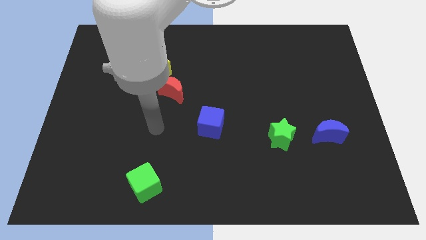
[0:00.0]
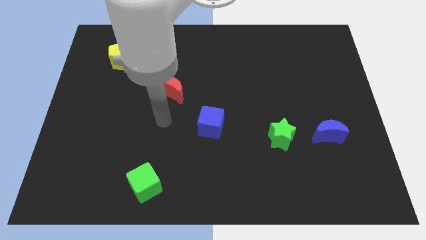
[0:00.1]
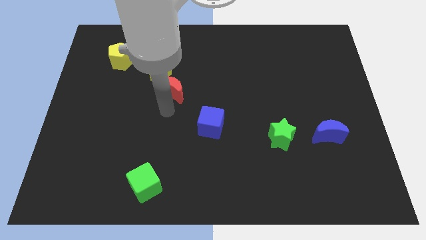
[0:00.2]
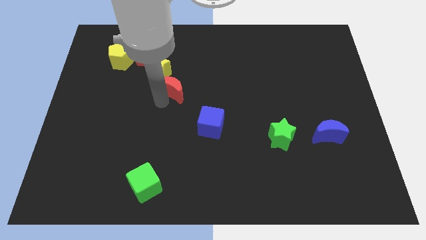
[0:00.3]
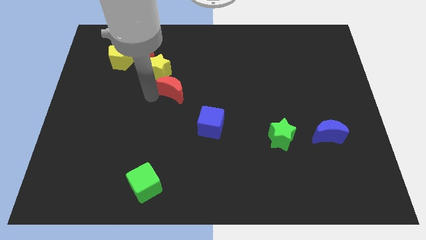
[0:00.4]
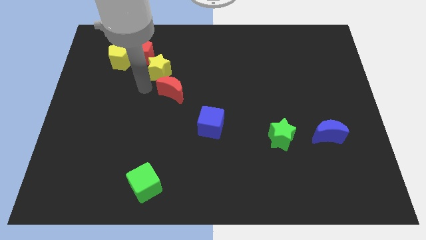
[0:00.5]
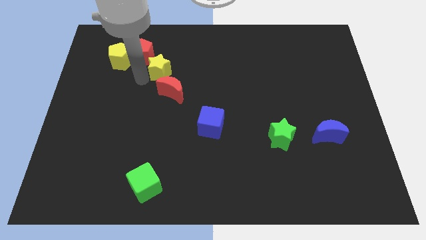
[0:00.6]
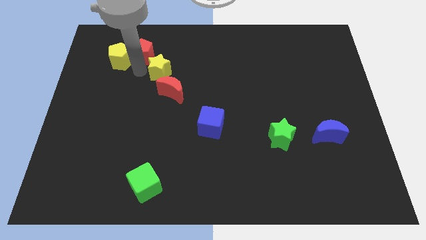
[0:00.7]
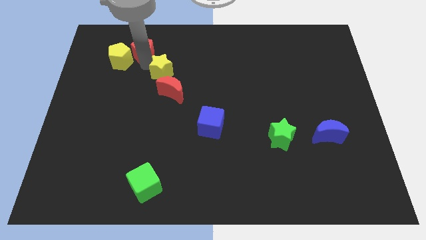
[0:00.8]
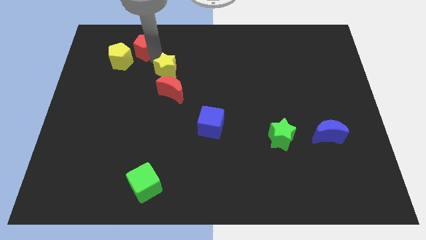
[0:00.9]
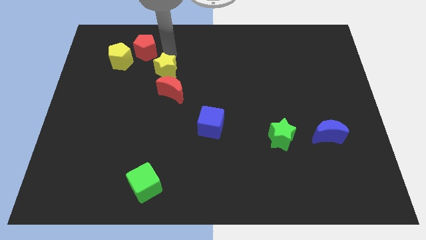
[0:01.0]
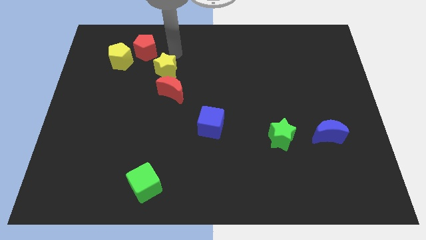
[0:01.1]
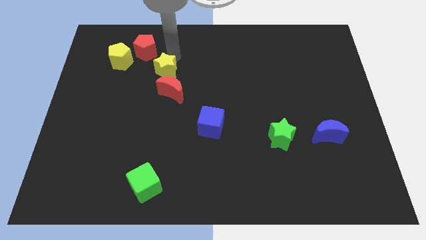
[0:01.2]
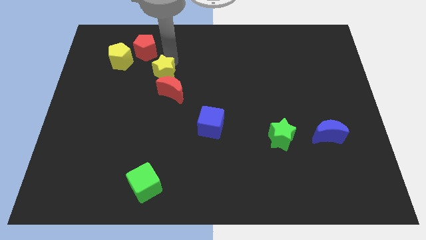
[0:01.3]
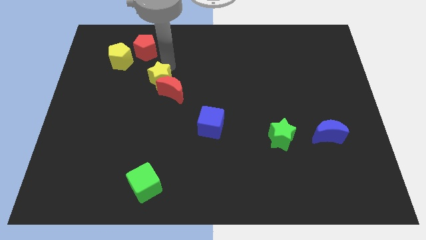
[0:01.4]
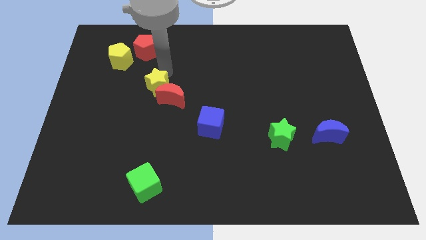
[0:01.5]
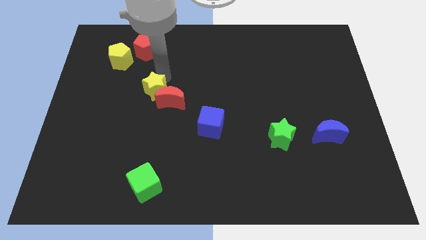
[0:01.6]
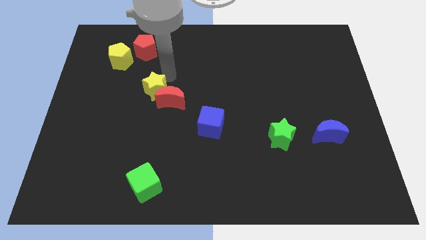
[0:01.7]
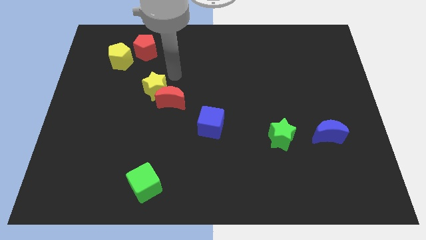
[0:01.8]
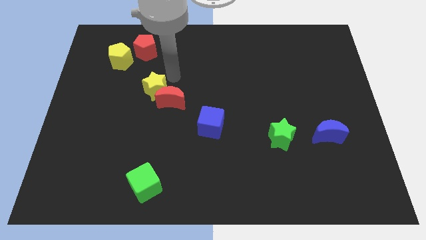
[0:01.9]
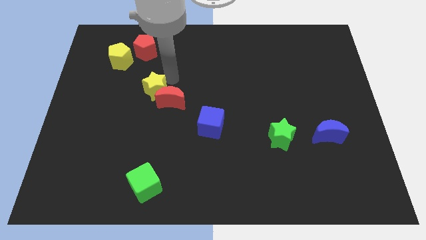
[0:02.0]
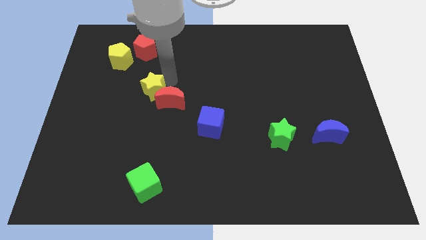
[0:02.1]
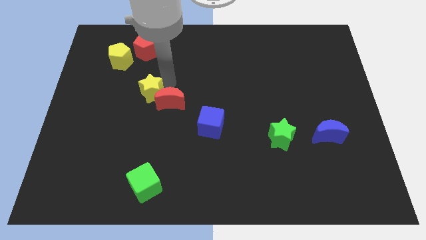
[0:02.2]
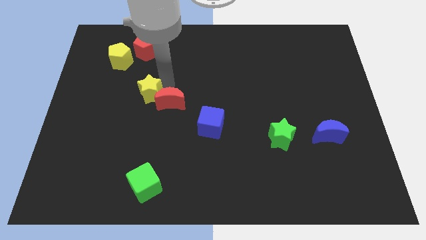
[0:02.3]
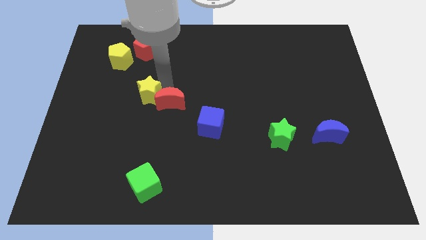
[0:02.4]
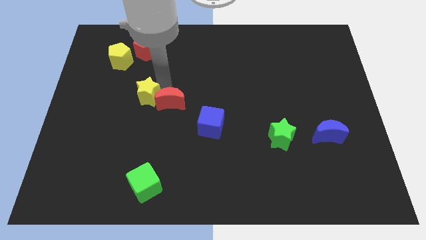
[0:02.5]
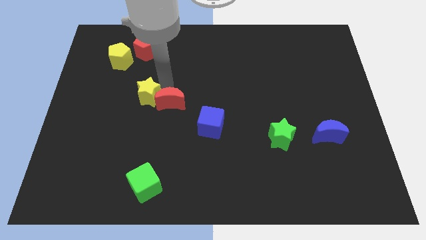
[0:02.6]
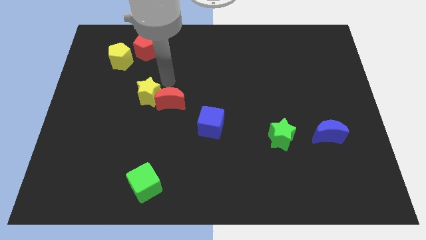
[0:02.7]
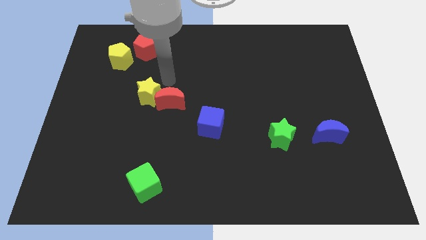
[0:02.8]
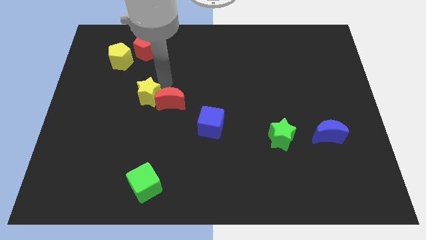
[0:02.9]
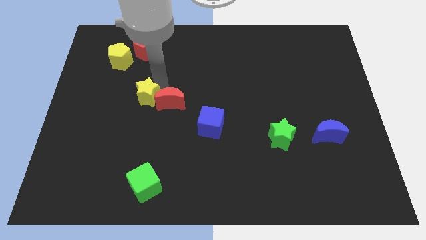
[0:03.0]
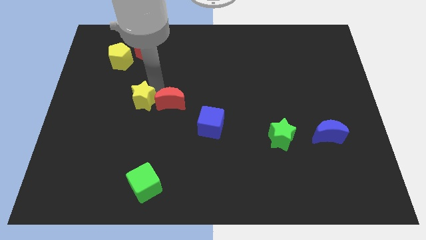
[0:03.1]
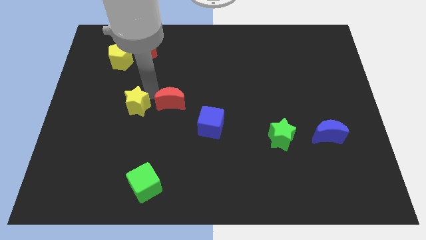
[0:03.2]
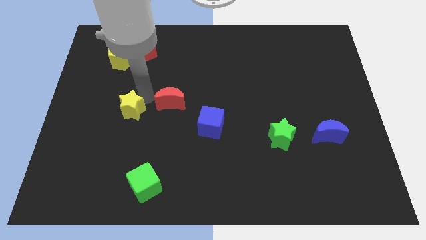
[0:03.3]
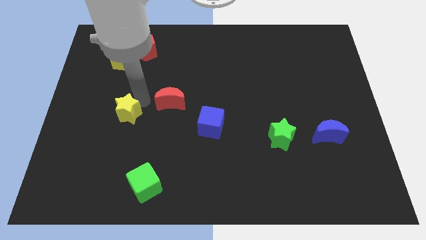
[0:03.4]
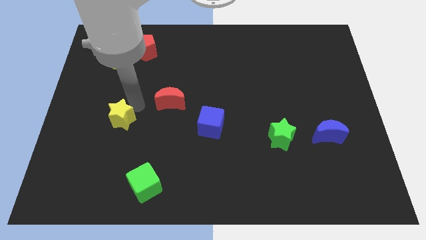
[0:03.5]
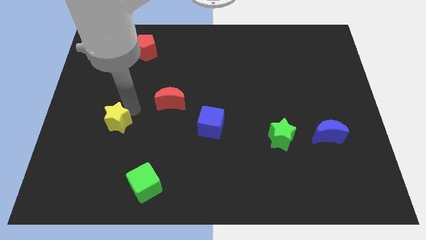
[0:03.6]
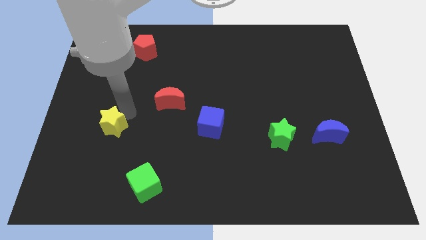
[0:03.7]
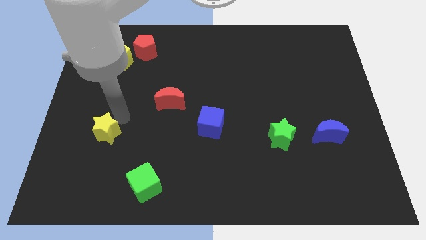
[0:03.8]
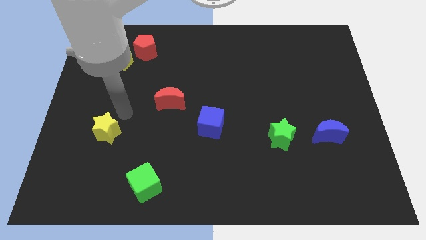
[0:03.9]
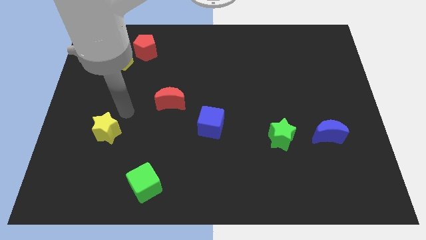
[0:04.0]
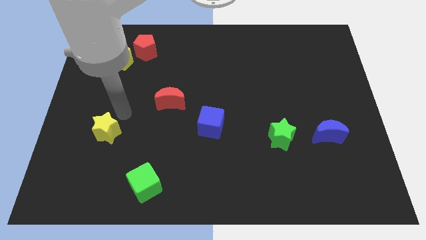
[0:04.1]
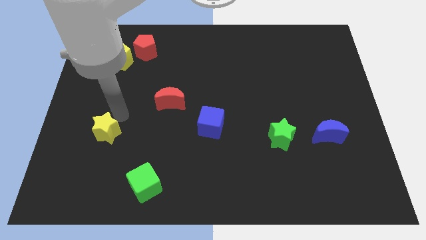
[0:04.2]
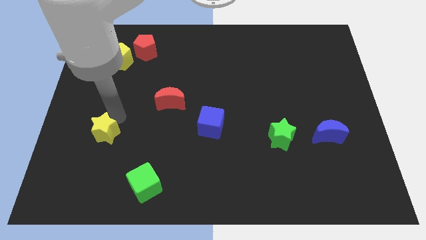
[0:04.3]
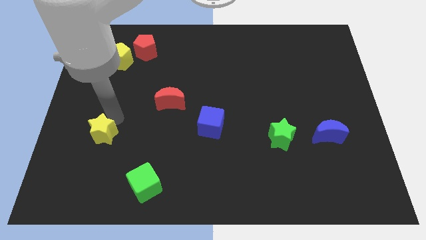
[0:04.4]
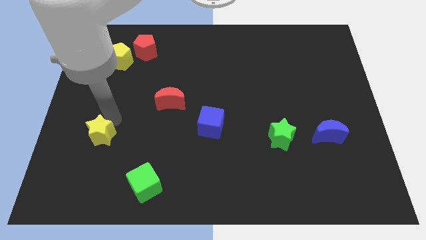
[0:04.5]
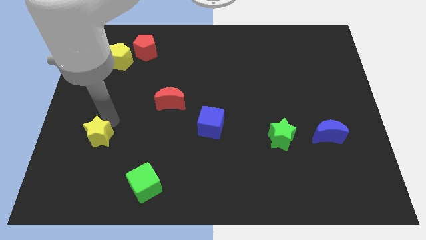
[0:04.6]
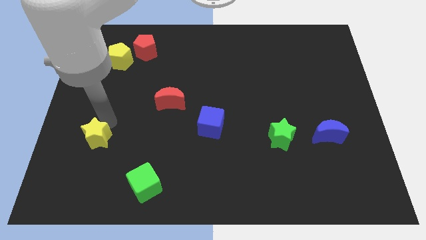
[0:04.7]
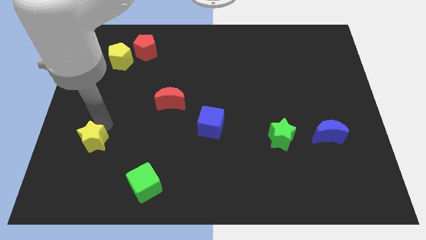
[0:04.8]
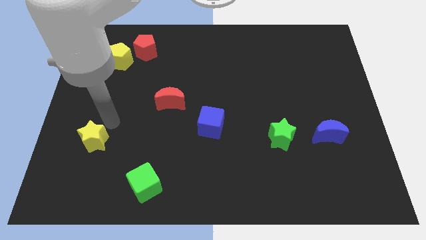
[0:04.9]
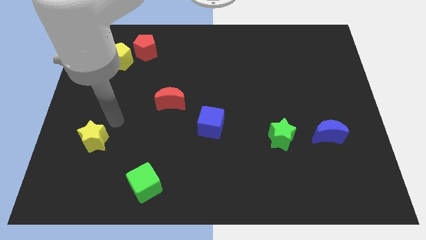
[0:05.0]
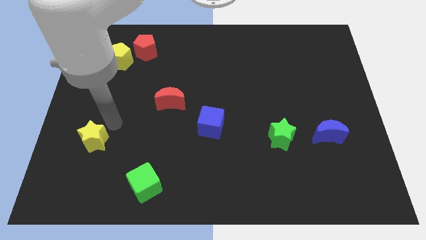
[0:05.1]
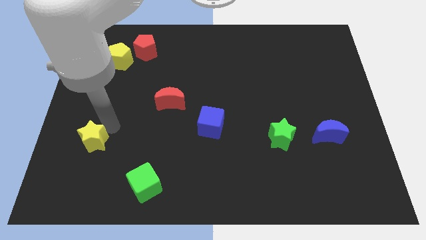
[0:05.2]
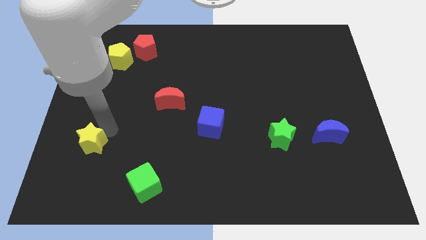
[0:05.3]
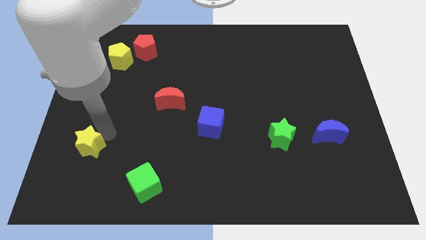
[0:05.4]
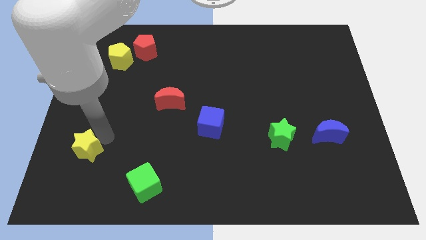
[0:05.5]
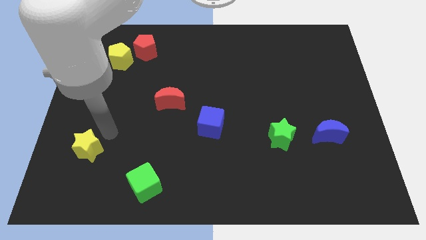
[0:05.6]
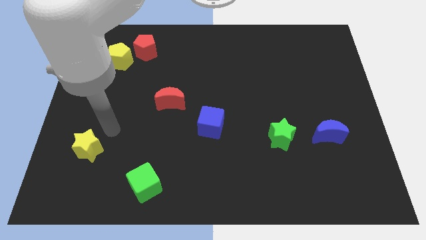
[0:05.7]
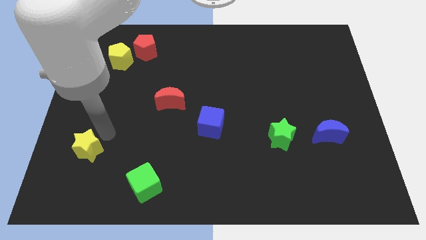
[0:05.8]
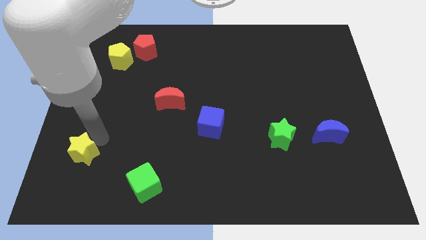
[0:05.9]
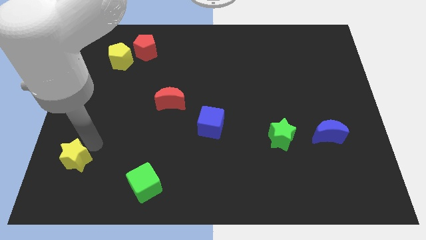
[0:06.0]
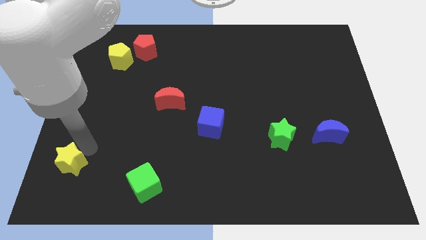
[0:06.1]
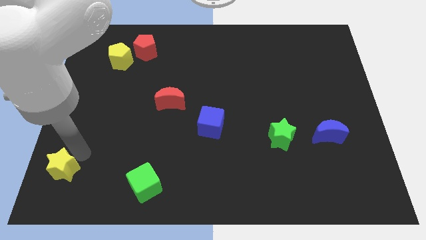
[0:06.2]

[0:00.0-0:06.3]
slide the yellow star to the bottom left of the board

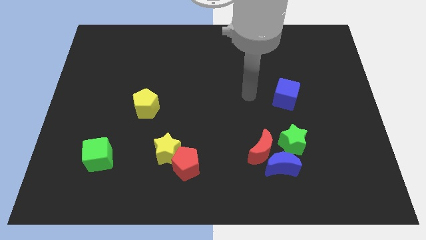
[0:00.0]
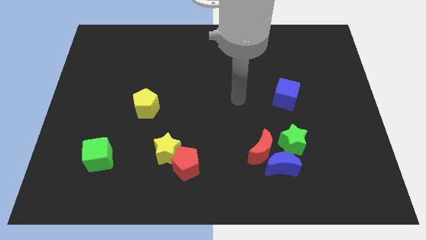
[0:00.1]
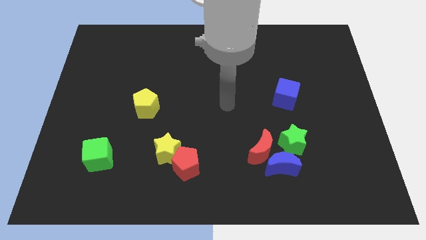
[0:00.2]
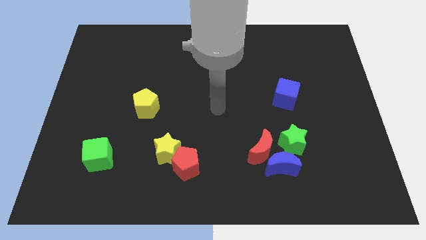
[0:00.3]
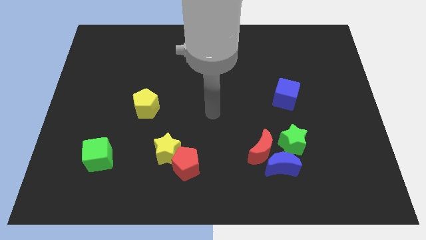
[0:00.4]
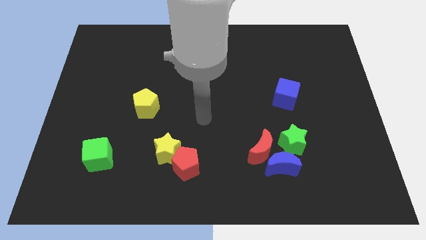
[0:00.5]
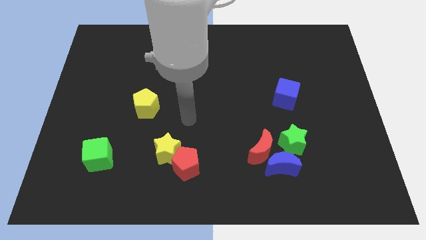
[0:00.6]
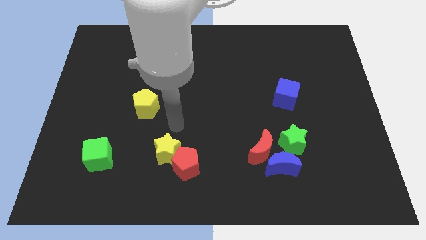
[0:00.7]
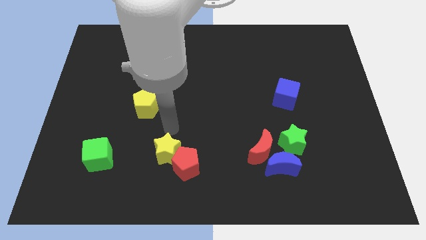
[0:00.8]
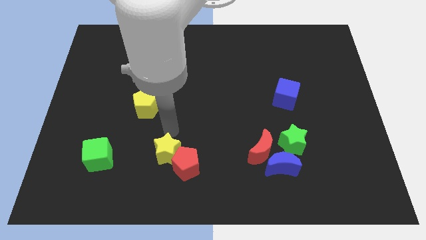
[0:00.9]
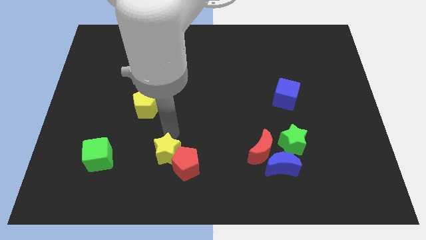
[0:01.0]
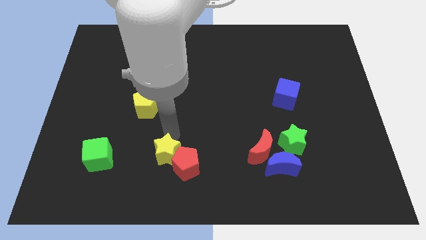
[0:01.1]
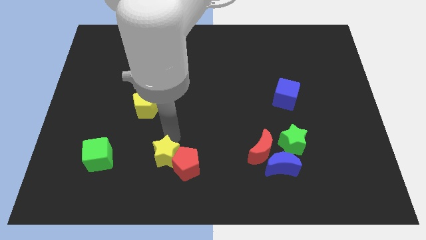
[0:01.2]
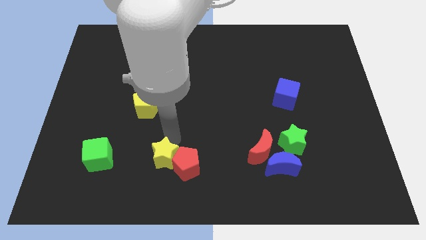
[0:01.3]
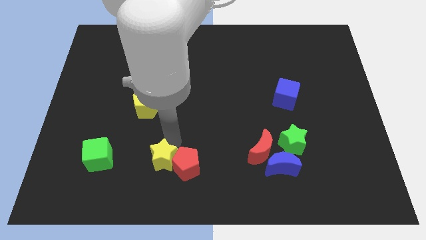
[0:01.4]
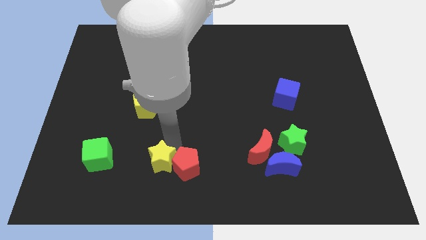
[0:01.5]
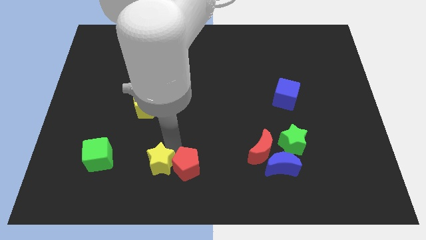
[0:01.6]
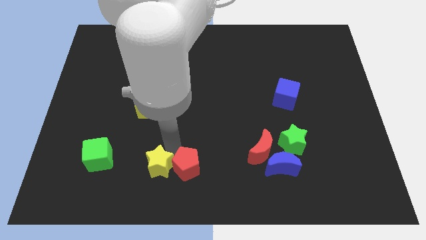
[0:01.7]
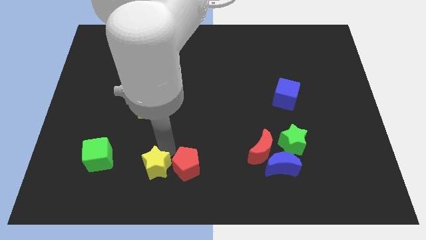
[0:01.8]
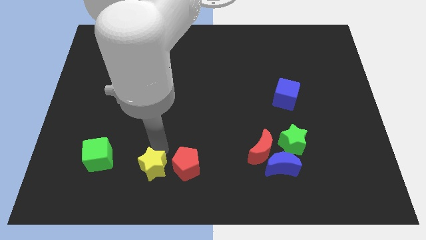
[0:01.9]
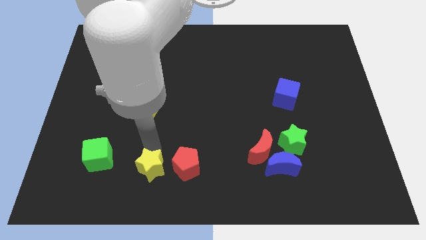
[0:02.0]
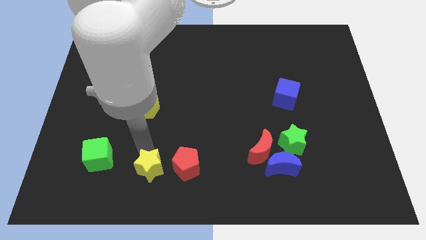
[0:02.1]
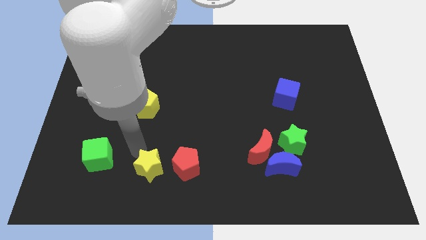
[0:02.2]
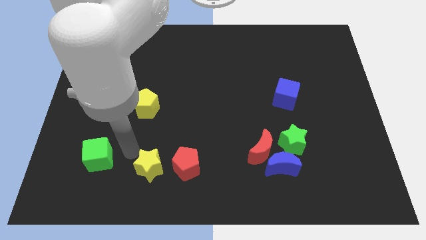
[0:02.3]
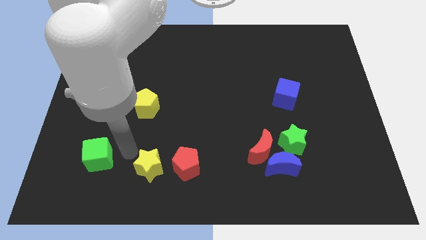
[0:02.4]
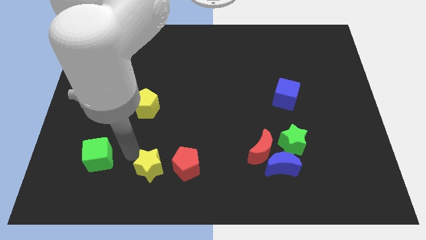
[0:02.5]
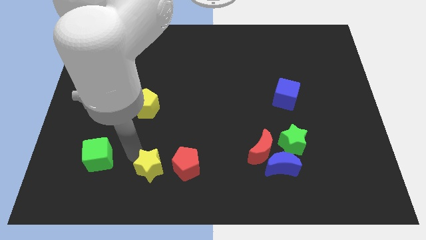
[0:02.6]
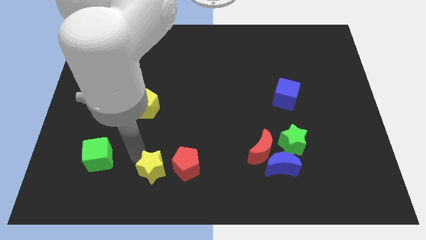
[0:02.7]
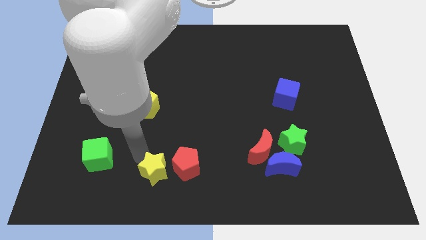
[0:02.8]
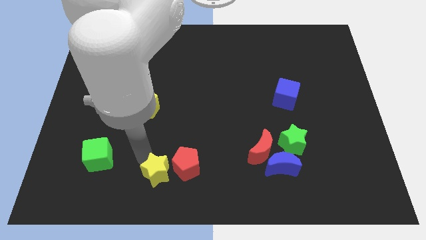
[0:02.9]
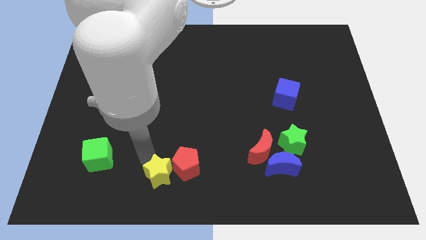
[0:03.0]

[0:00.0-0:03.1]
put the yellow star to the bottom side
